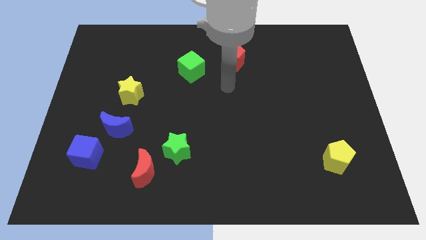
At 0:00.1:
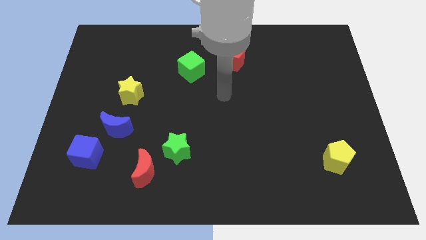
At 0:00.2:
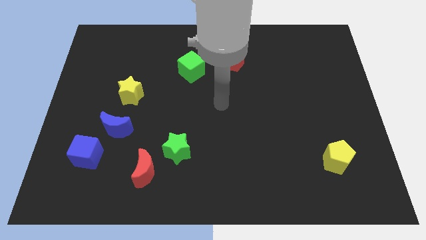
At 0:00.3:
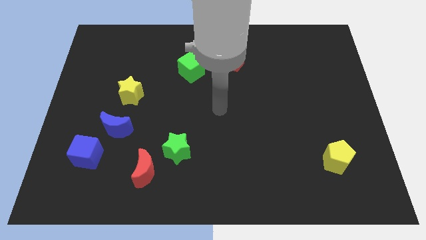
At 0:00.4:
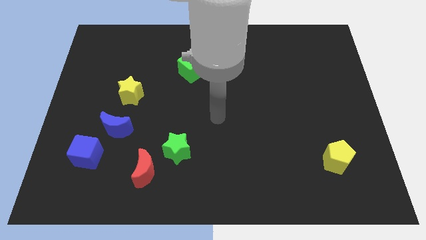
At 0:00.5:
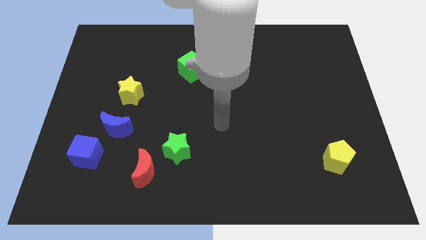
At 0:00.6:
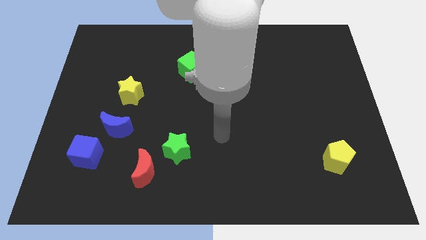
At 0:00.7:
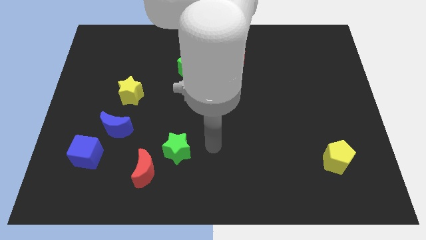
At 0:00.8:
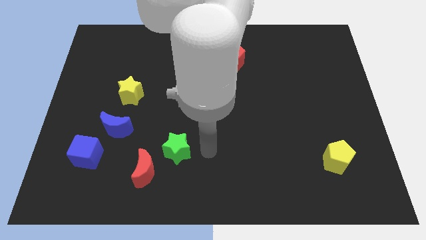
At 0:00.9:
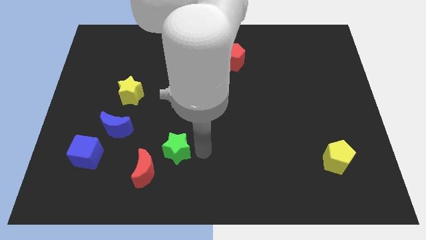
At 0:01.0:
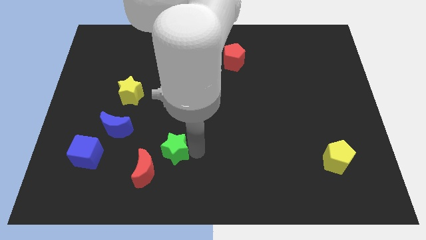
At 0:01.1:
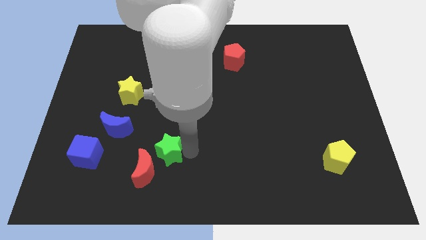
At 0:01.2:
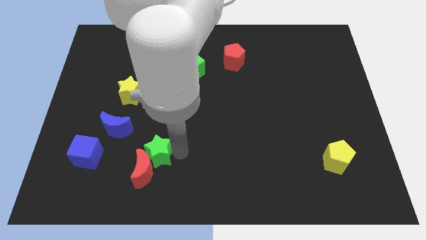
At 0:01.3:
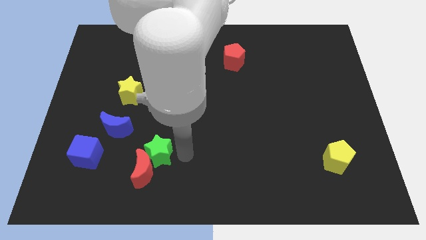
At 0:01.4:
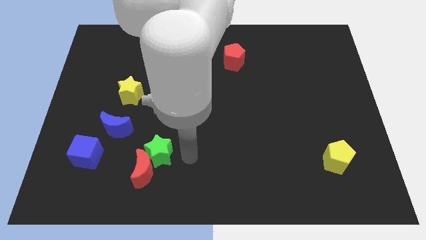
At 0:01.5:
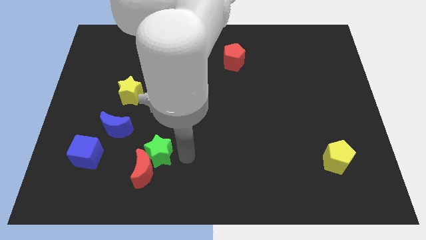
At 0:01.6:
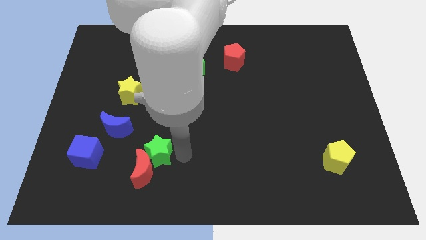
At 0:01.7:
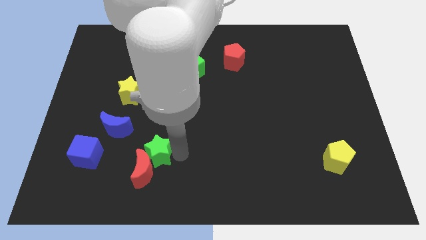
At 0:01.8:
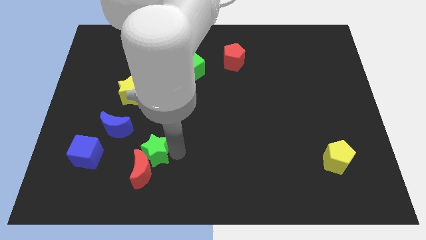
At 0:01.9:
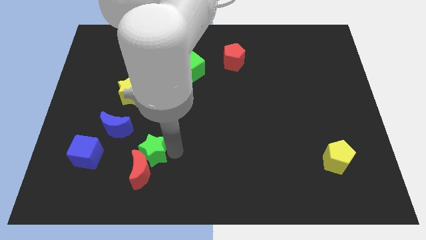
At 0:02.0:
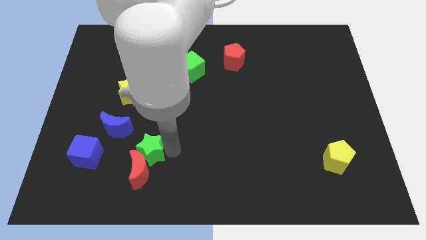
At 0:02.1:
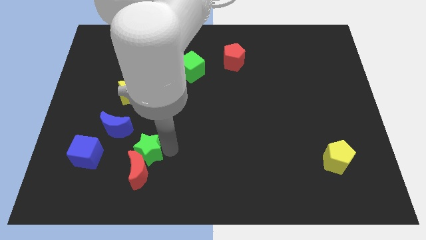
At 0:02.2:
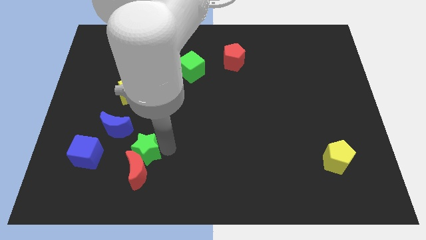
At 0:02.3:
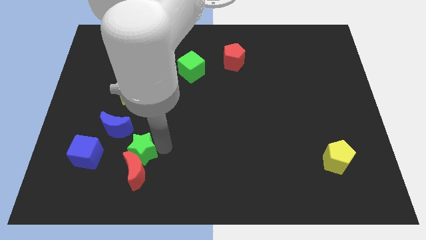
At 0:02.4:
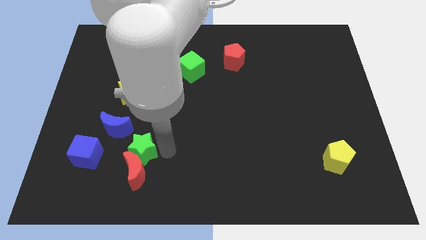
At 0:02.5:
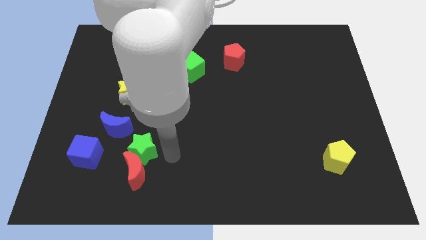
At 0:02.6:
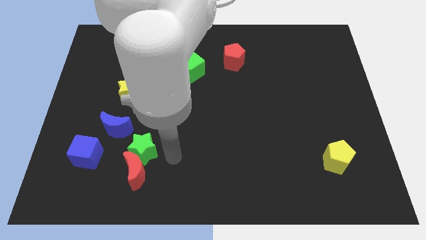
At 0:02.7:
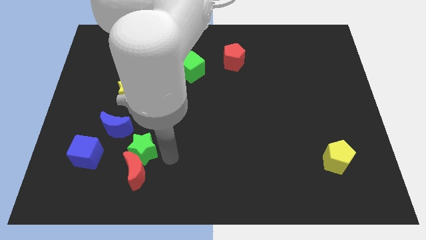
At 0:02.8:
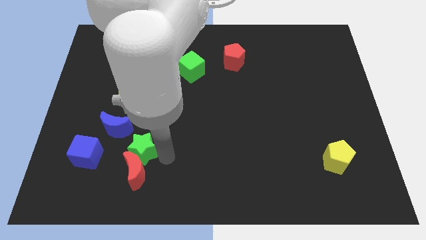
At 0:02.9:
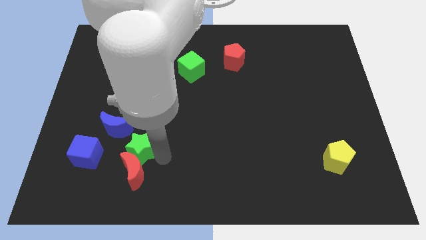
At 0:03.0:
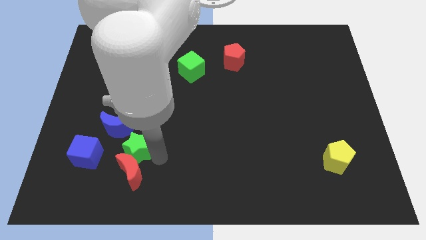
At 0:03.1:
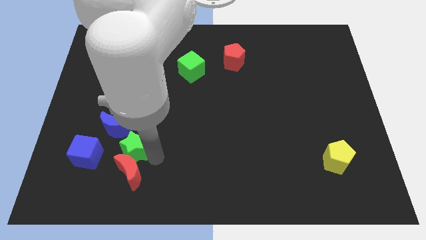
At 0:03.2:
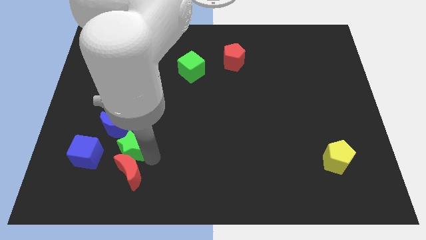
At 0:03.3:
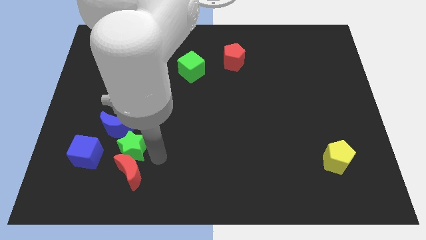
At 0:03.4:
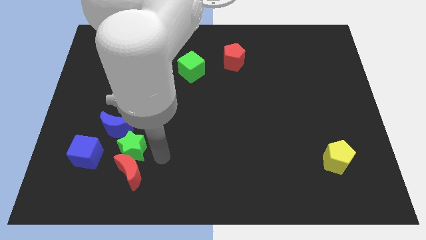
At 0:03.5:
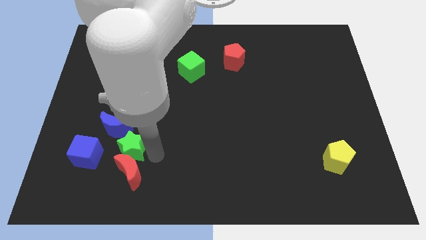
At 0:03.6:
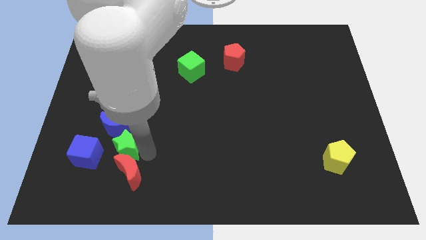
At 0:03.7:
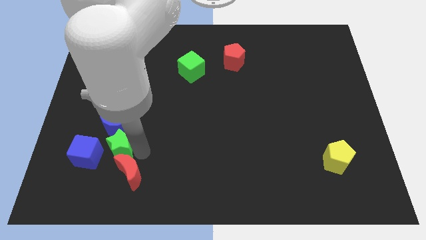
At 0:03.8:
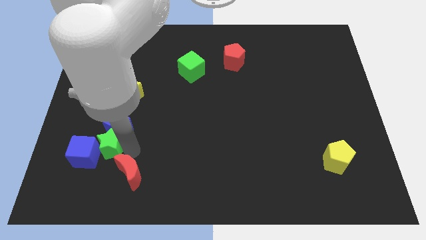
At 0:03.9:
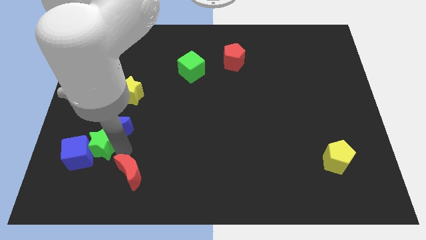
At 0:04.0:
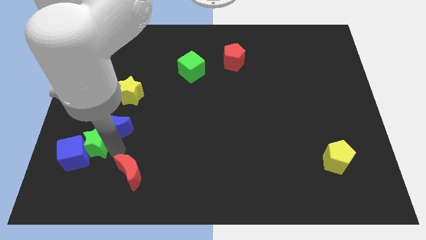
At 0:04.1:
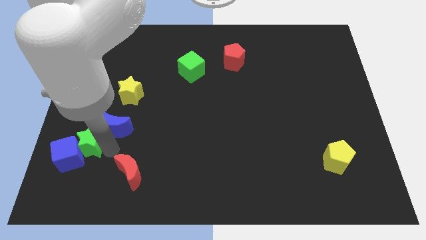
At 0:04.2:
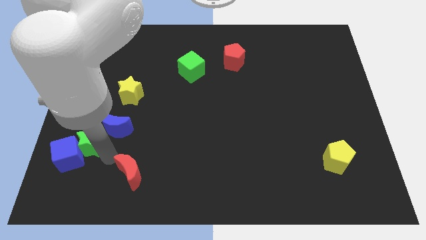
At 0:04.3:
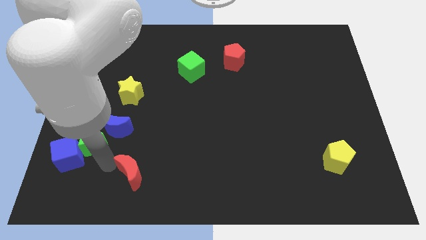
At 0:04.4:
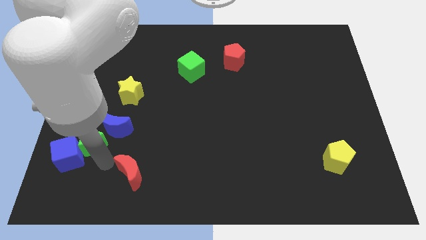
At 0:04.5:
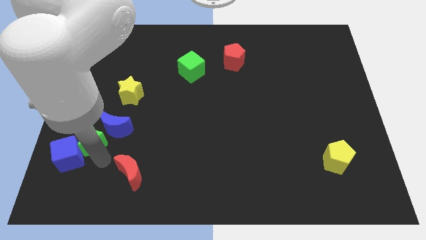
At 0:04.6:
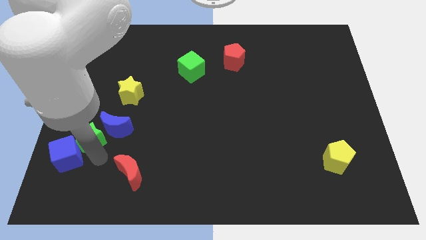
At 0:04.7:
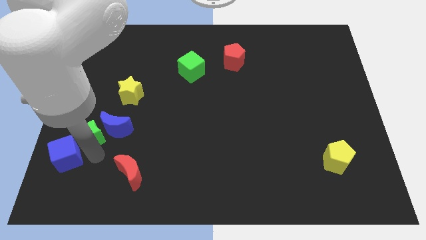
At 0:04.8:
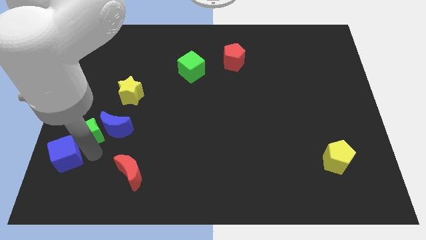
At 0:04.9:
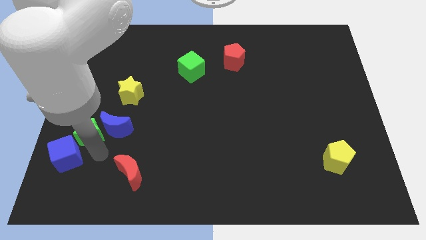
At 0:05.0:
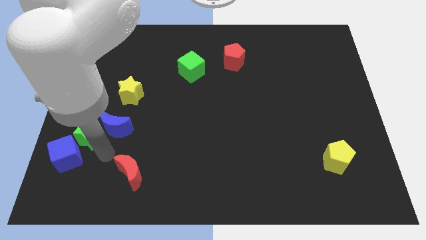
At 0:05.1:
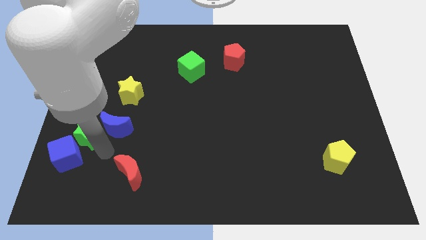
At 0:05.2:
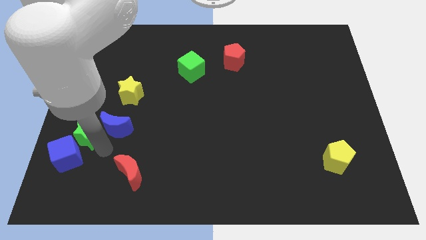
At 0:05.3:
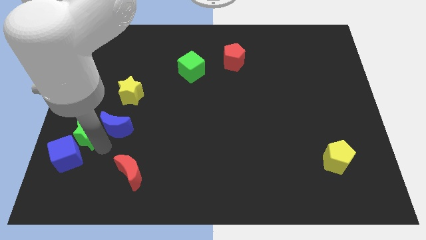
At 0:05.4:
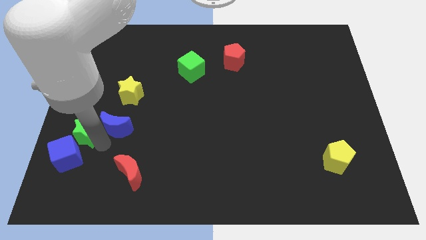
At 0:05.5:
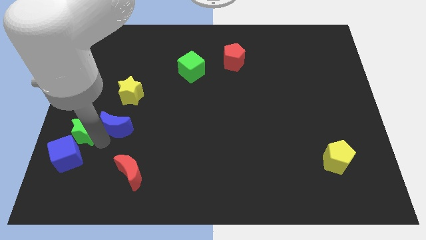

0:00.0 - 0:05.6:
move the green star to the center left
